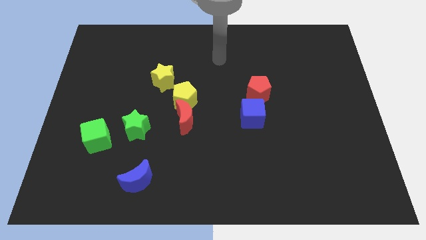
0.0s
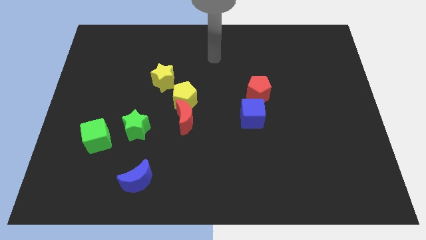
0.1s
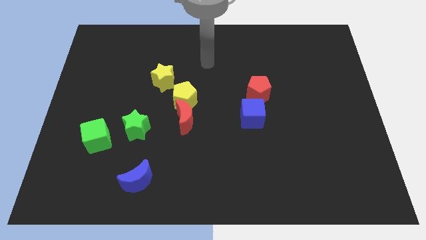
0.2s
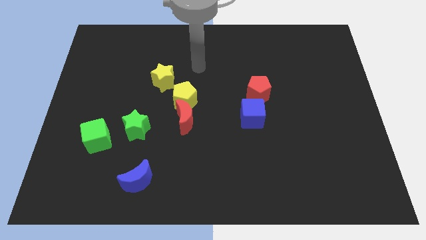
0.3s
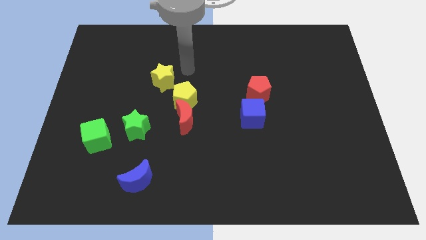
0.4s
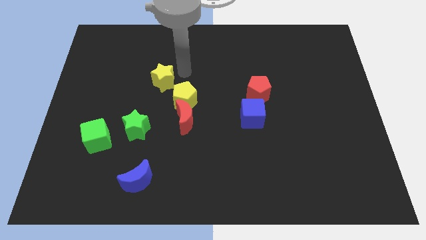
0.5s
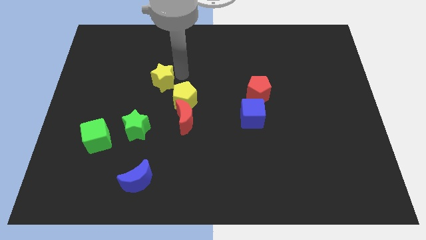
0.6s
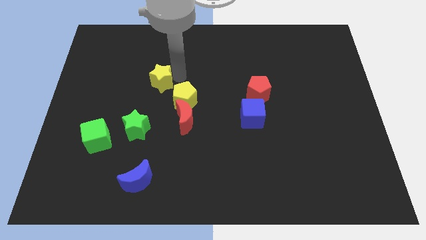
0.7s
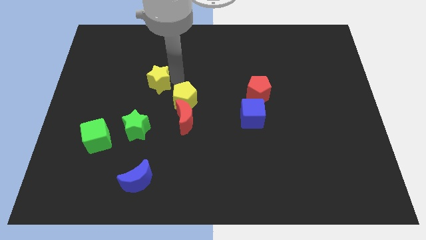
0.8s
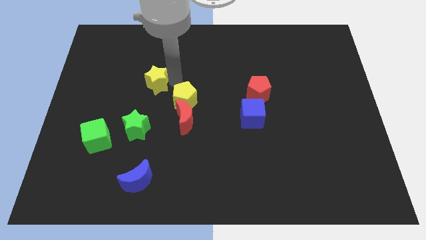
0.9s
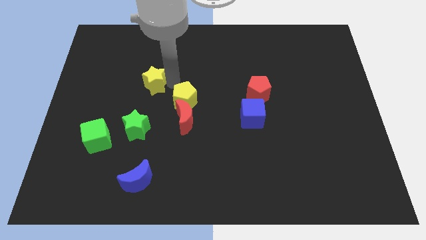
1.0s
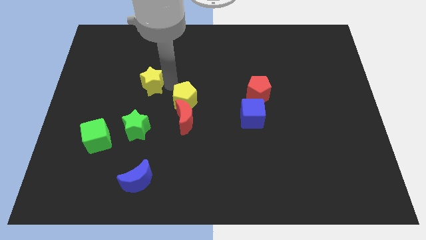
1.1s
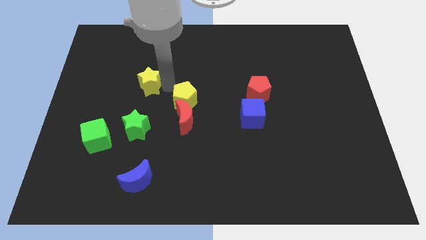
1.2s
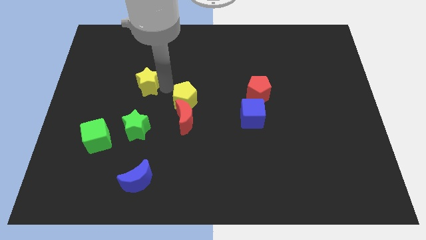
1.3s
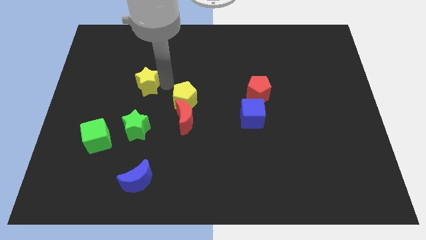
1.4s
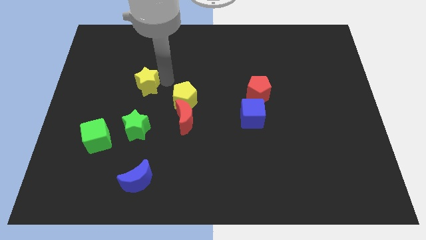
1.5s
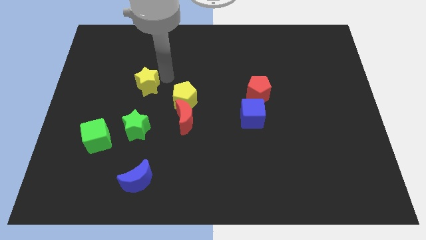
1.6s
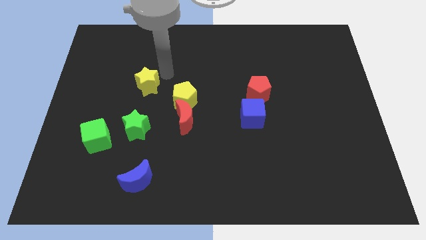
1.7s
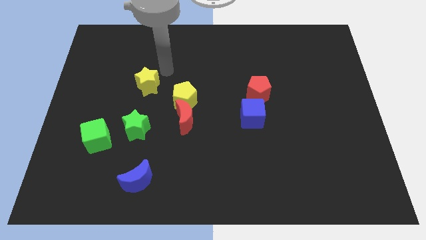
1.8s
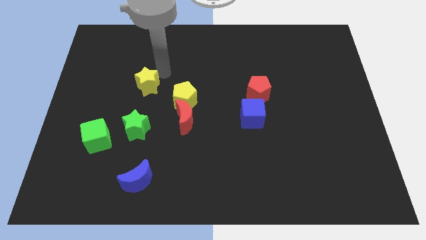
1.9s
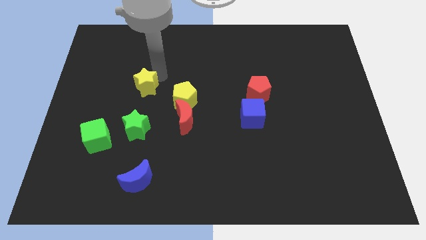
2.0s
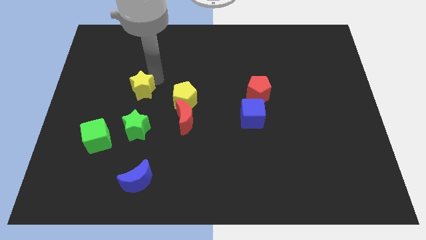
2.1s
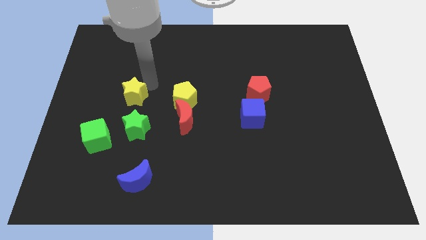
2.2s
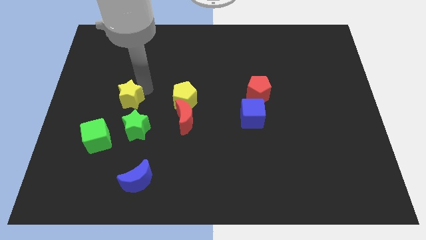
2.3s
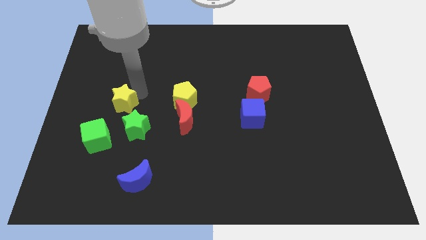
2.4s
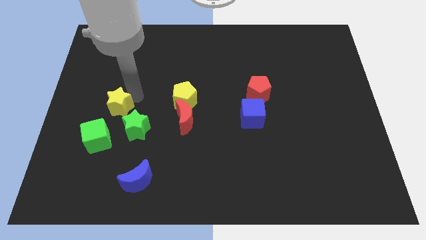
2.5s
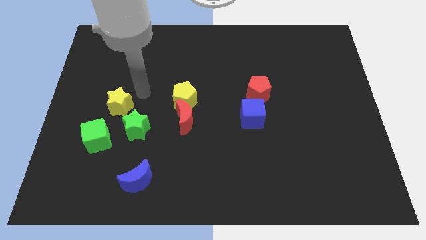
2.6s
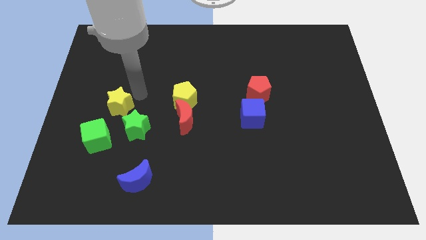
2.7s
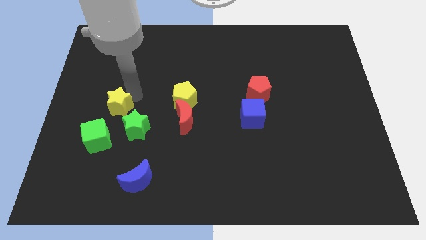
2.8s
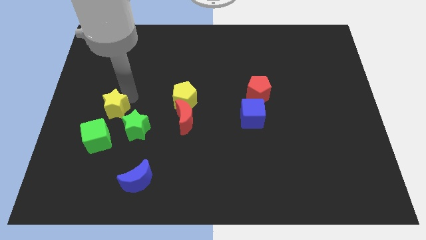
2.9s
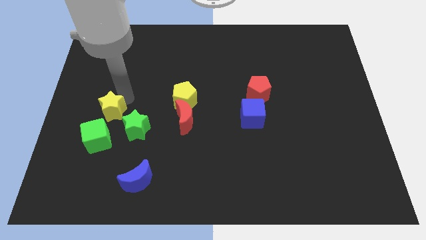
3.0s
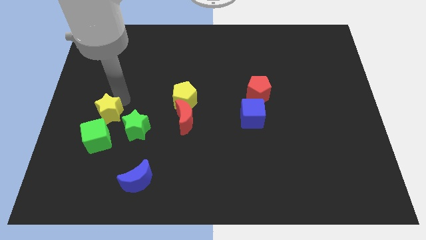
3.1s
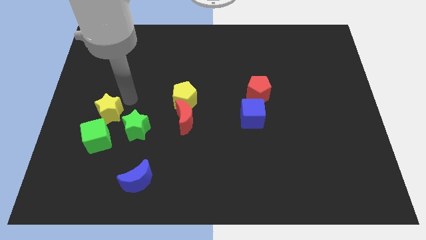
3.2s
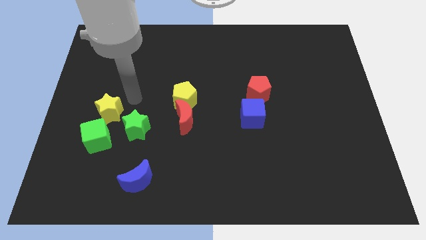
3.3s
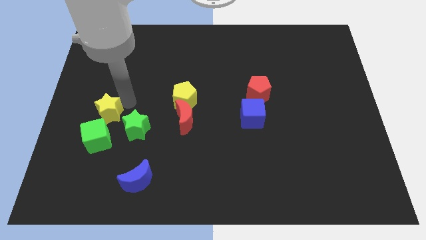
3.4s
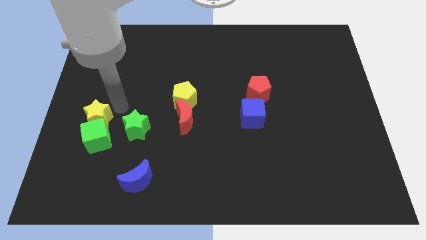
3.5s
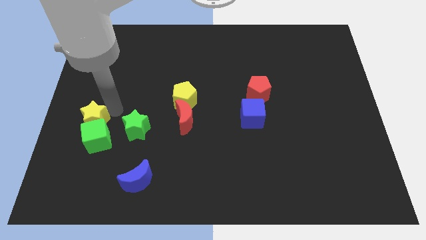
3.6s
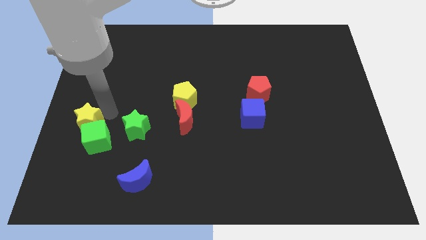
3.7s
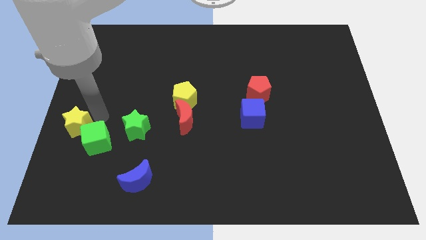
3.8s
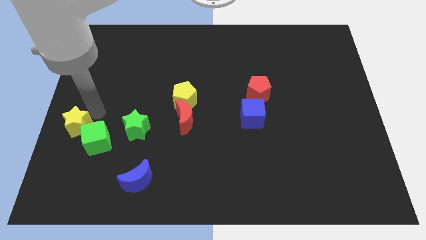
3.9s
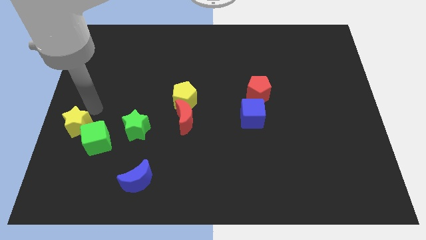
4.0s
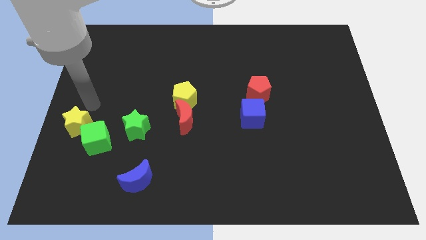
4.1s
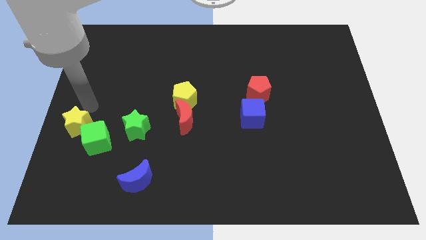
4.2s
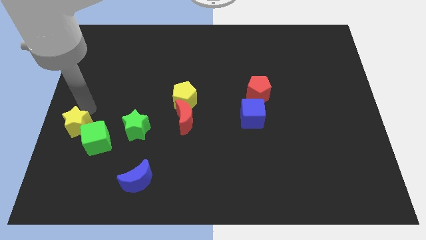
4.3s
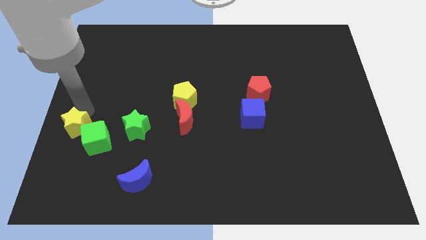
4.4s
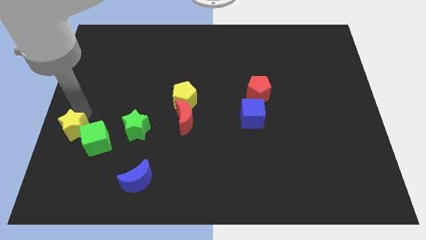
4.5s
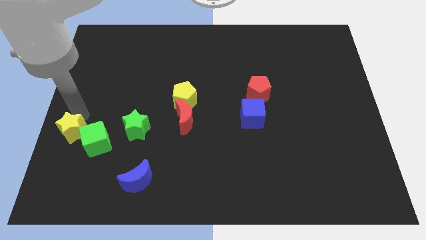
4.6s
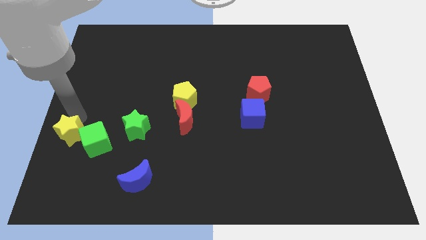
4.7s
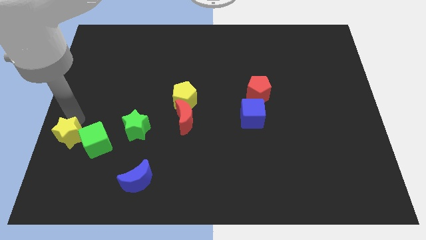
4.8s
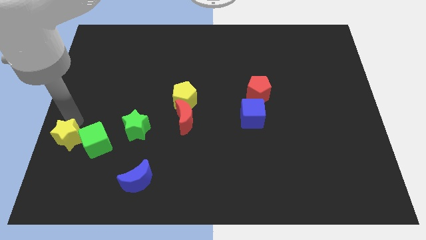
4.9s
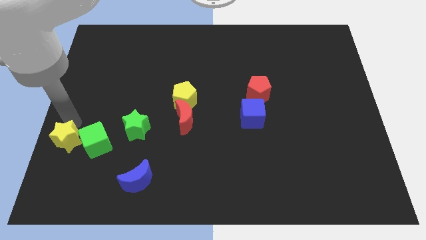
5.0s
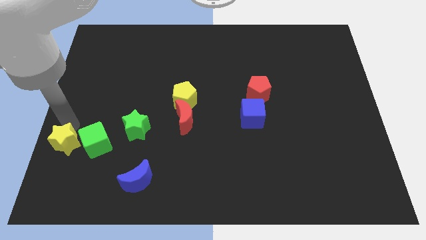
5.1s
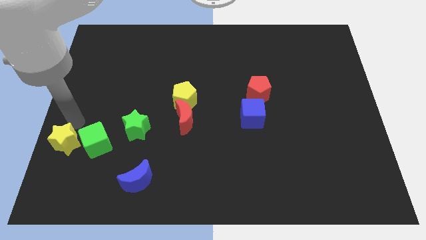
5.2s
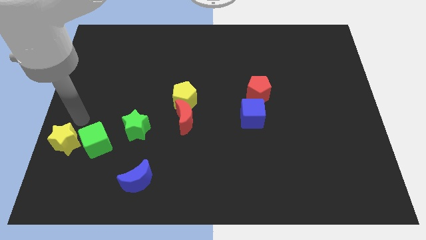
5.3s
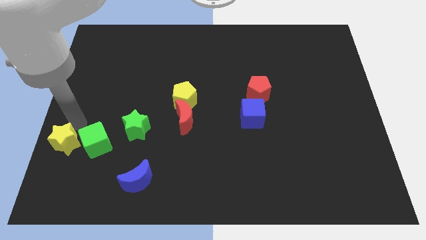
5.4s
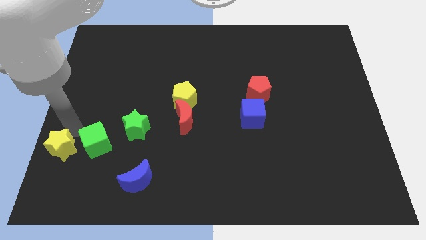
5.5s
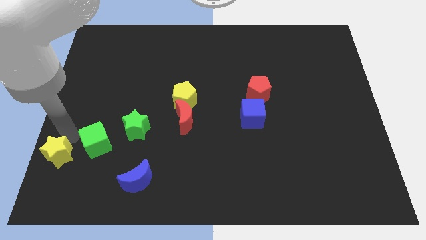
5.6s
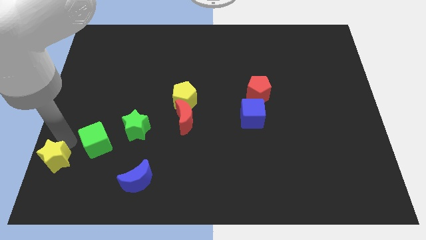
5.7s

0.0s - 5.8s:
put the yellow star to the bottom left corner

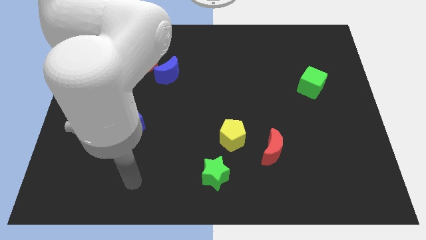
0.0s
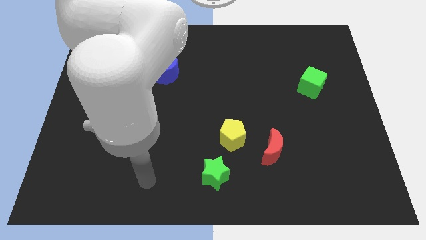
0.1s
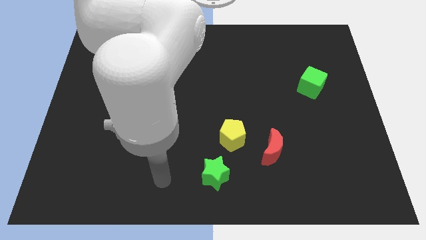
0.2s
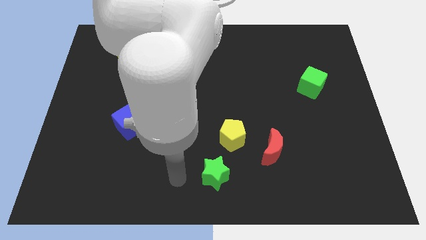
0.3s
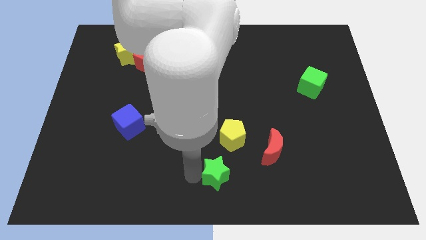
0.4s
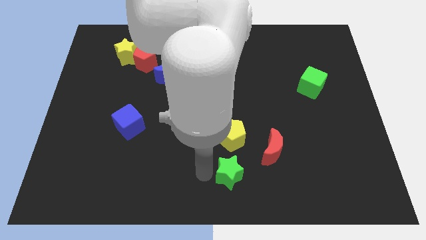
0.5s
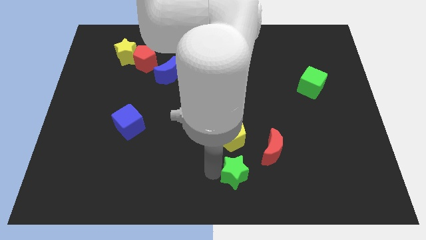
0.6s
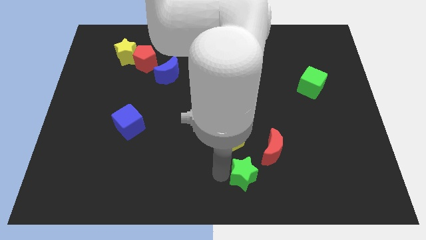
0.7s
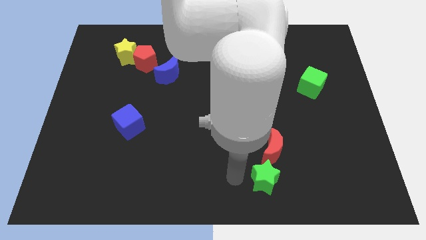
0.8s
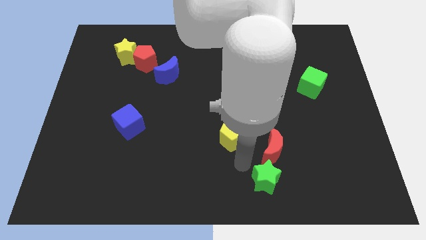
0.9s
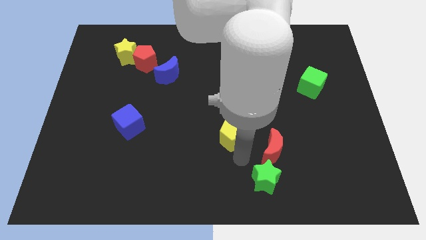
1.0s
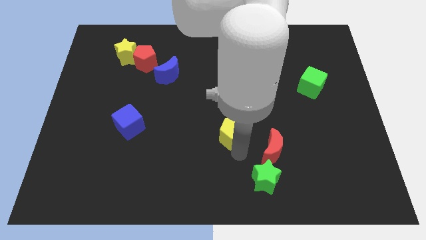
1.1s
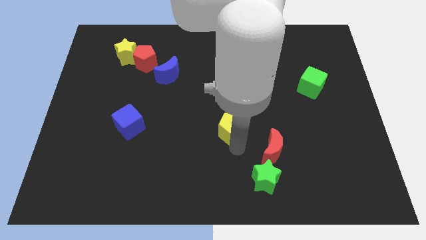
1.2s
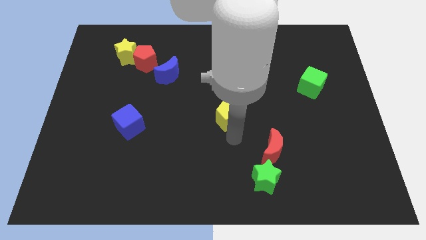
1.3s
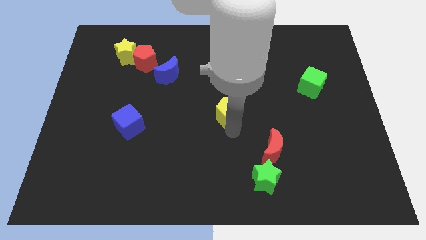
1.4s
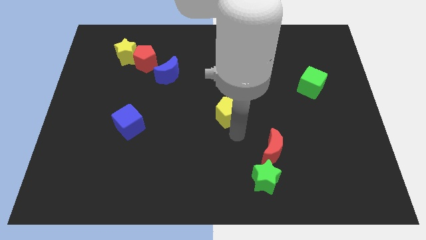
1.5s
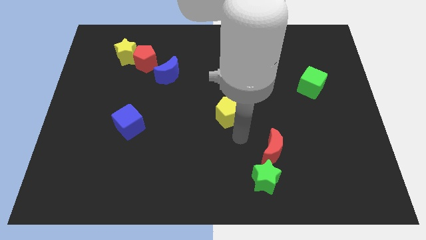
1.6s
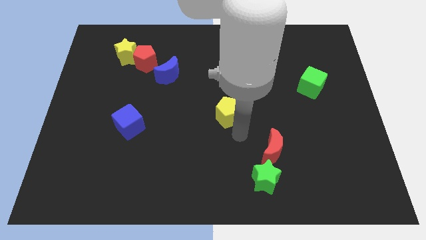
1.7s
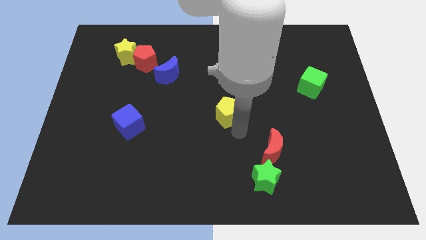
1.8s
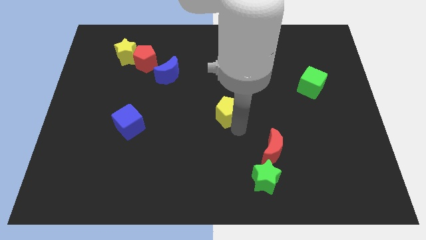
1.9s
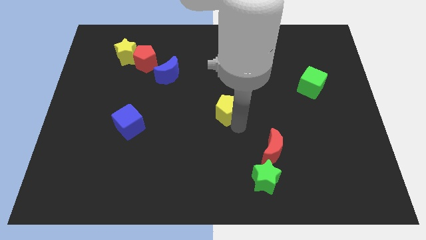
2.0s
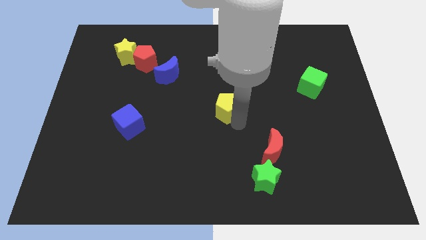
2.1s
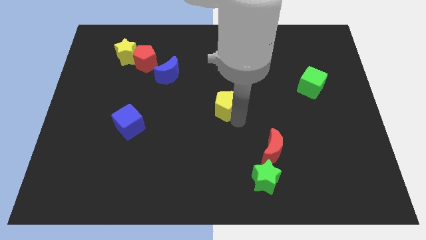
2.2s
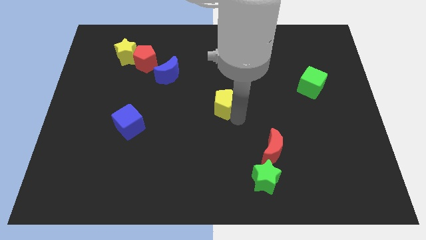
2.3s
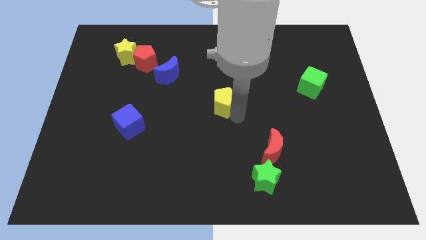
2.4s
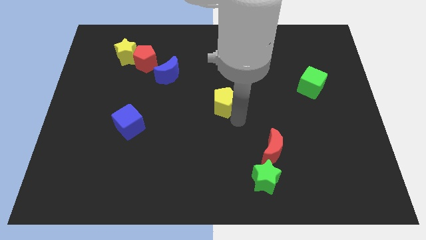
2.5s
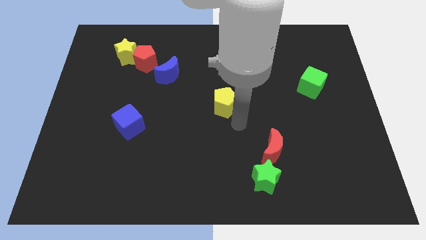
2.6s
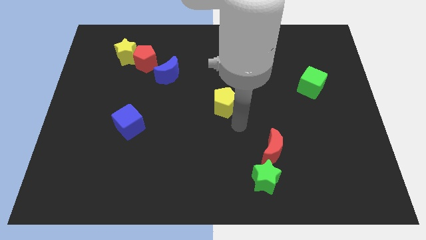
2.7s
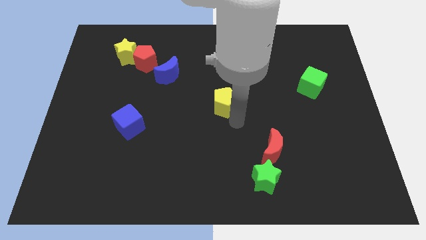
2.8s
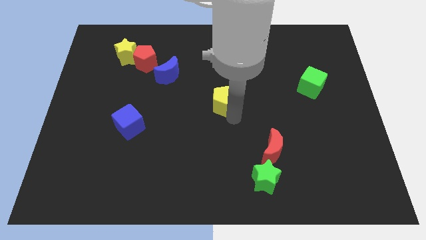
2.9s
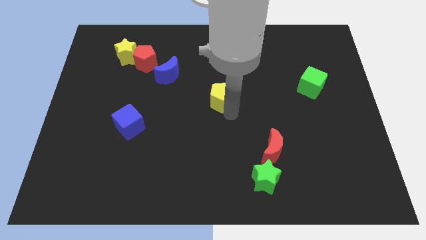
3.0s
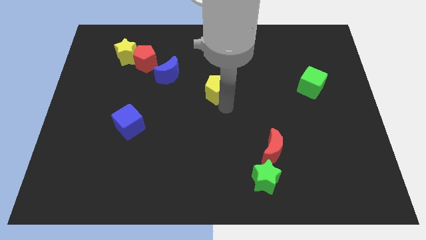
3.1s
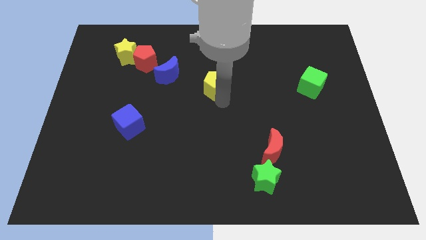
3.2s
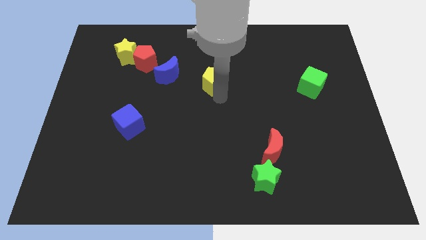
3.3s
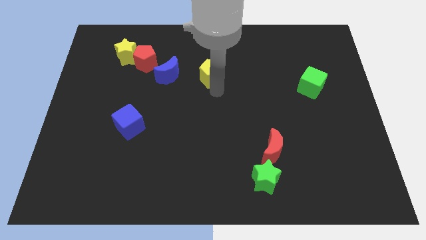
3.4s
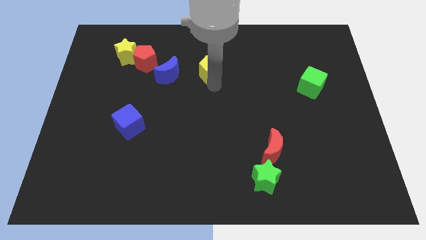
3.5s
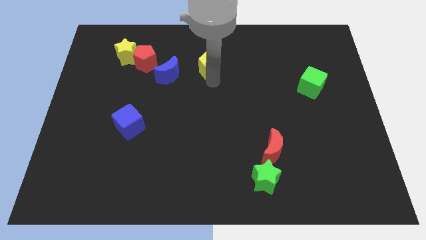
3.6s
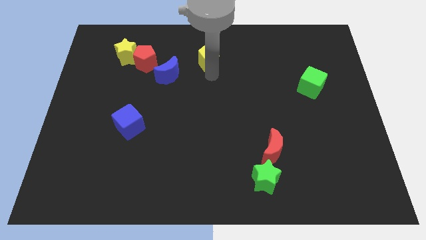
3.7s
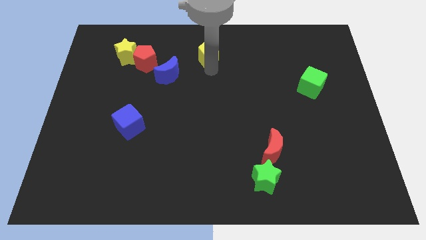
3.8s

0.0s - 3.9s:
put the yellow pentagon to the towards your base
